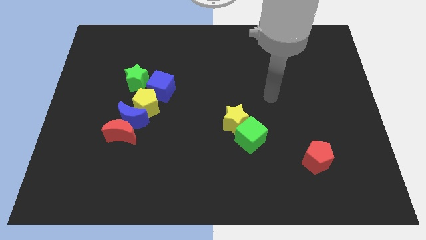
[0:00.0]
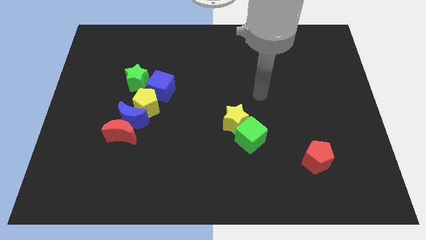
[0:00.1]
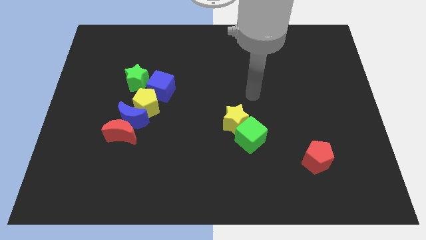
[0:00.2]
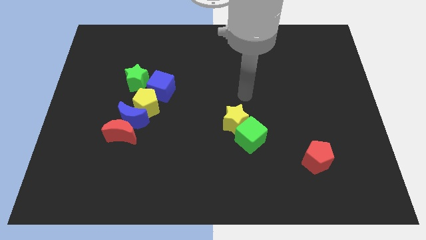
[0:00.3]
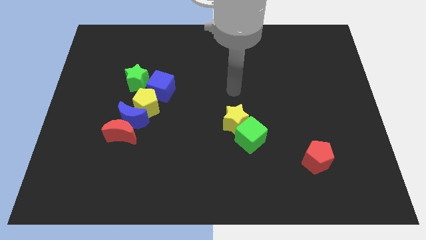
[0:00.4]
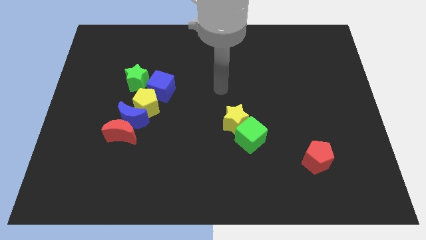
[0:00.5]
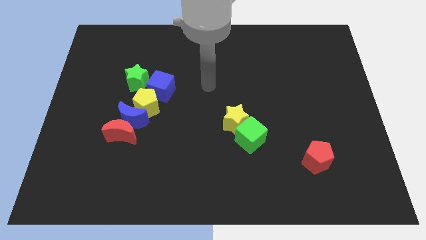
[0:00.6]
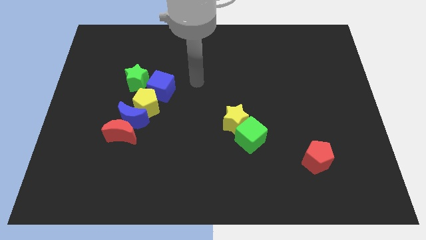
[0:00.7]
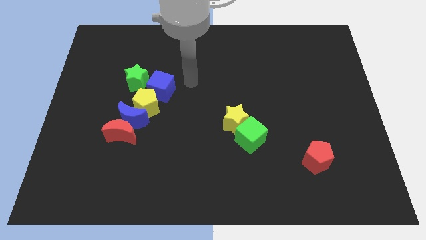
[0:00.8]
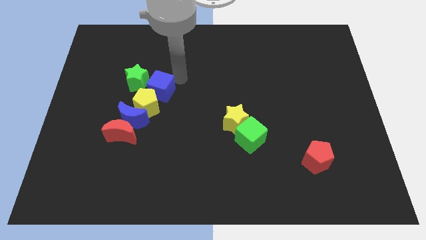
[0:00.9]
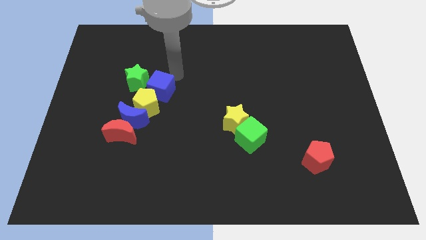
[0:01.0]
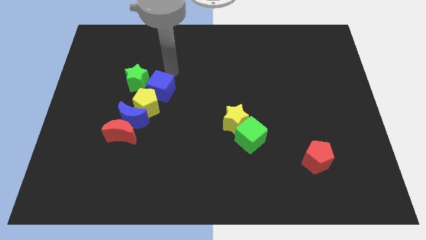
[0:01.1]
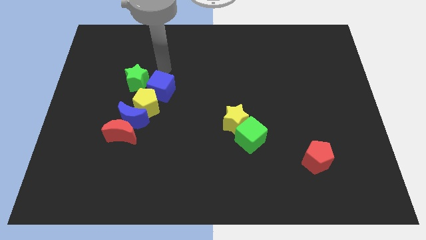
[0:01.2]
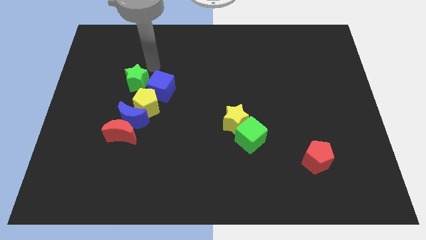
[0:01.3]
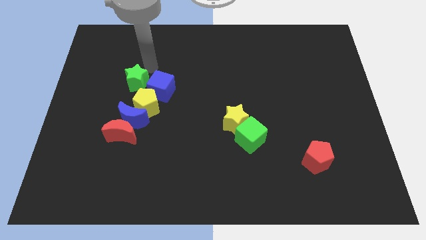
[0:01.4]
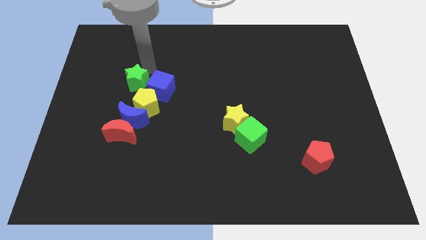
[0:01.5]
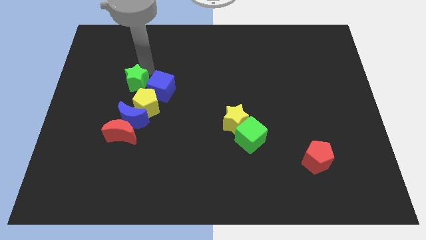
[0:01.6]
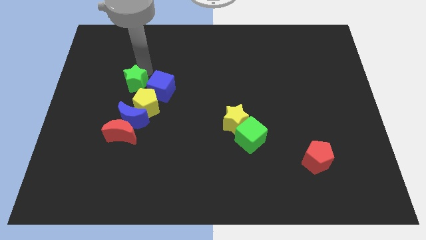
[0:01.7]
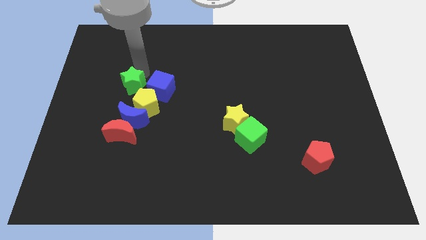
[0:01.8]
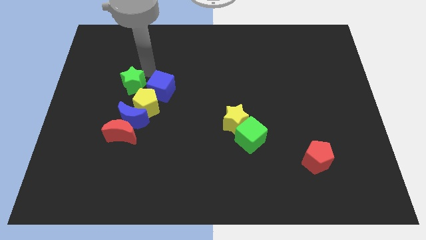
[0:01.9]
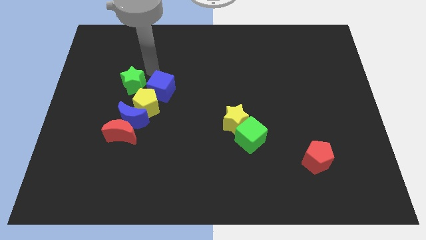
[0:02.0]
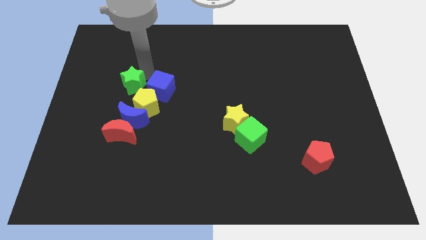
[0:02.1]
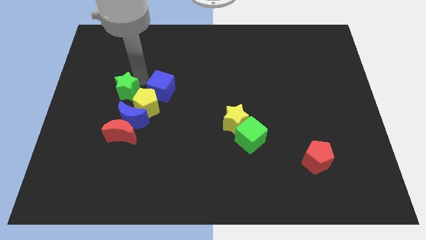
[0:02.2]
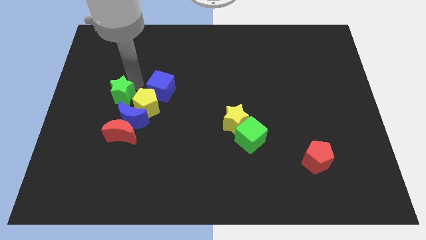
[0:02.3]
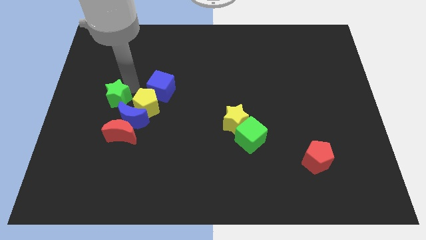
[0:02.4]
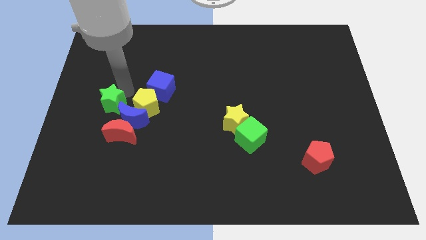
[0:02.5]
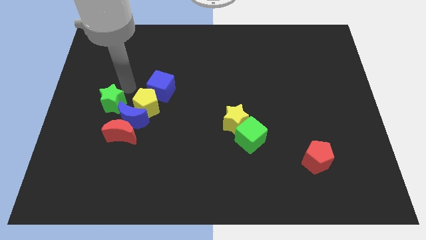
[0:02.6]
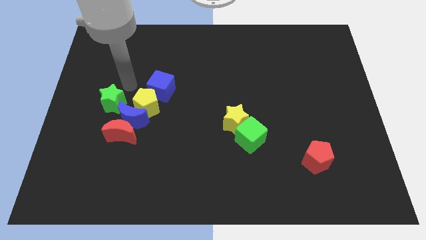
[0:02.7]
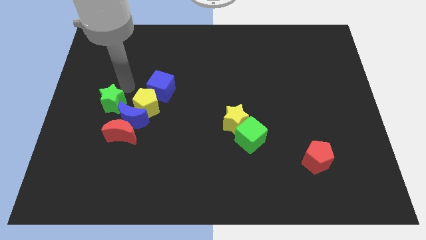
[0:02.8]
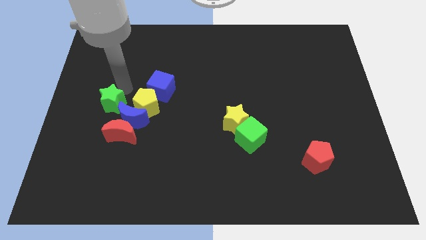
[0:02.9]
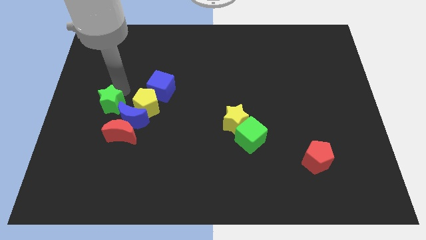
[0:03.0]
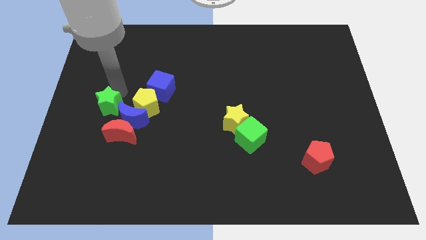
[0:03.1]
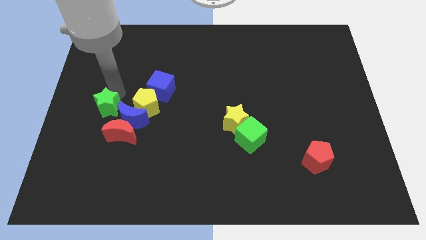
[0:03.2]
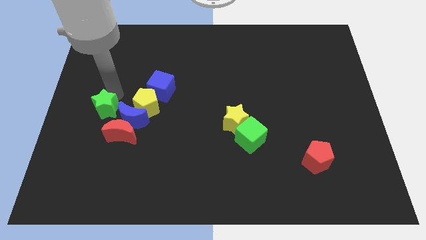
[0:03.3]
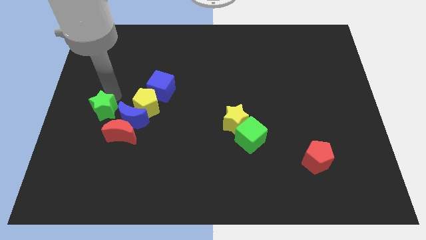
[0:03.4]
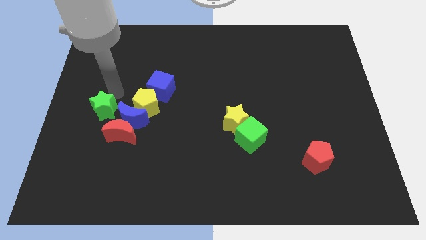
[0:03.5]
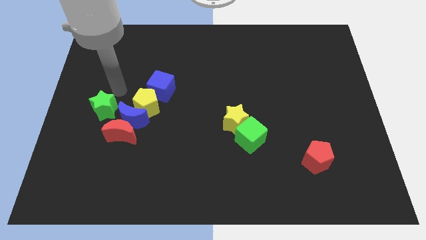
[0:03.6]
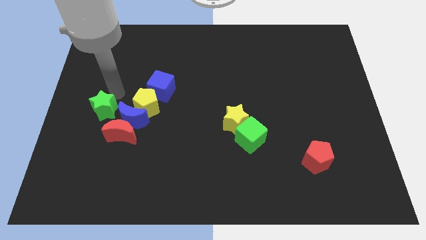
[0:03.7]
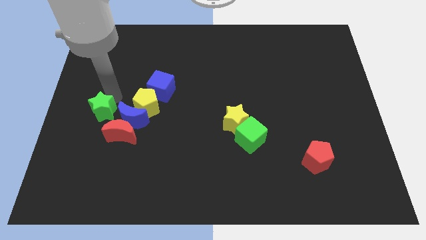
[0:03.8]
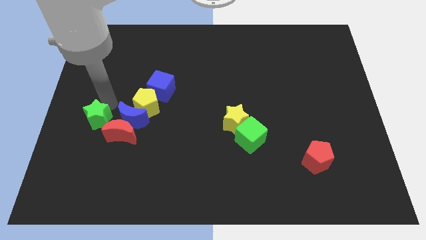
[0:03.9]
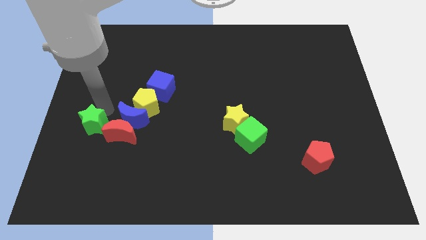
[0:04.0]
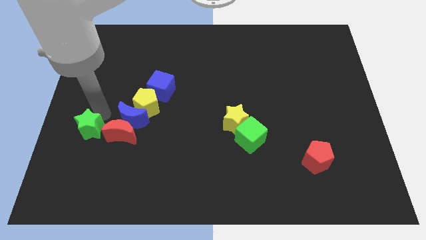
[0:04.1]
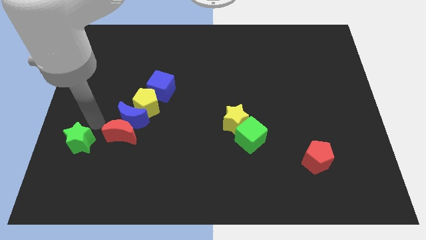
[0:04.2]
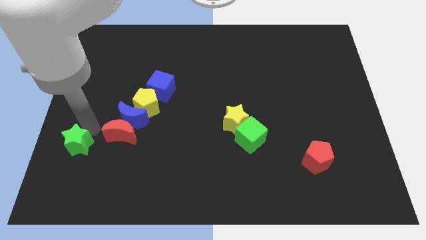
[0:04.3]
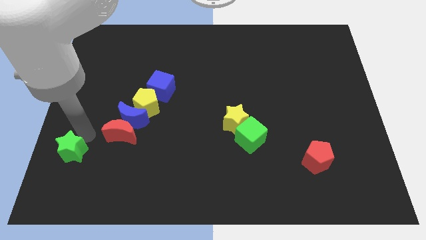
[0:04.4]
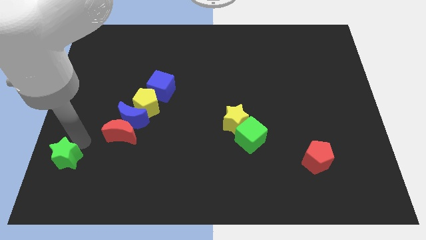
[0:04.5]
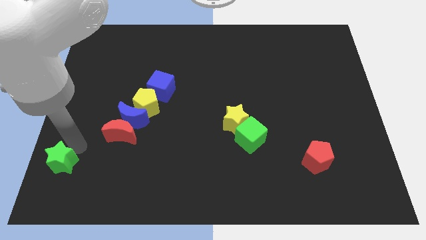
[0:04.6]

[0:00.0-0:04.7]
put the green star to the bottom left corner

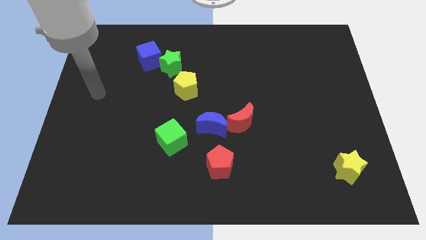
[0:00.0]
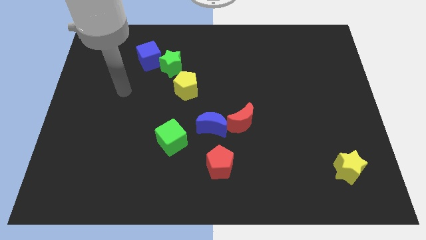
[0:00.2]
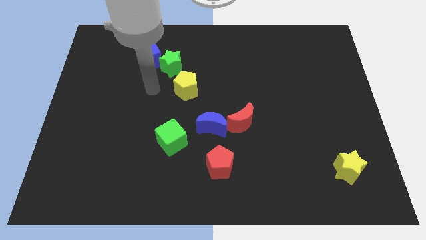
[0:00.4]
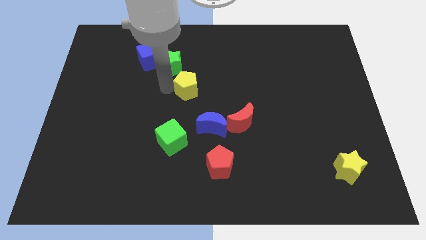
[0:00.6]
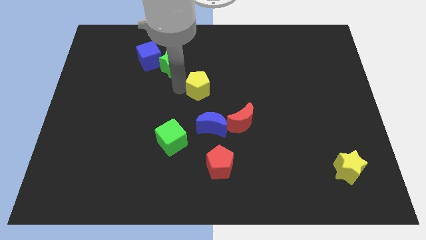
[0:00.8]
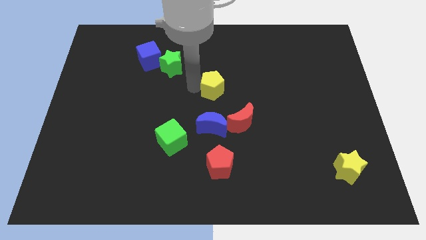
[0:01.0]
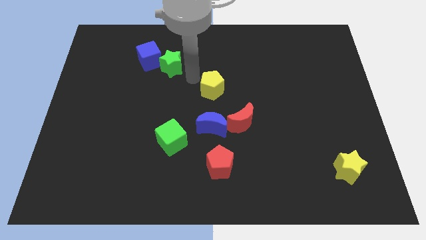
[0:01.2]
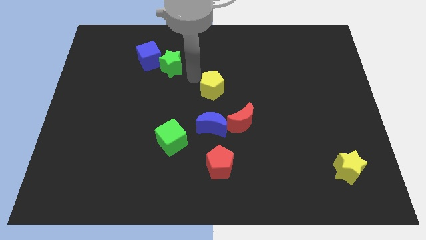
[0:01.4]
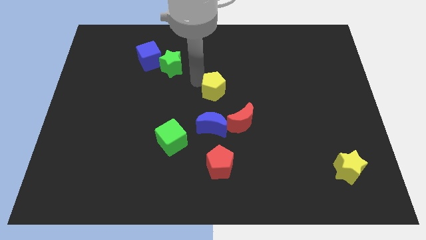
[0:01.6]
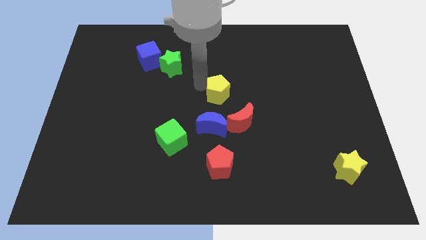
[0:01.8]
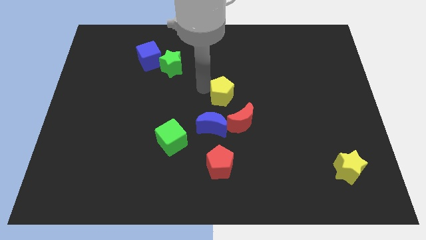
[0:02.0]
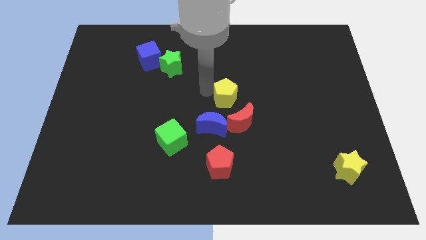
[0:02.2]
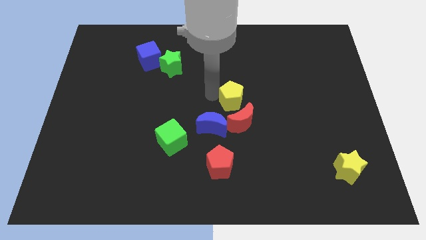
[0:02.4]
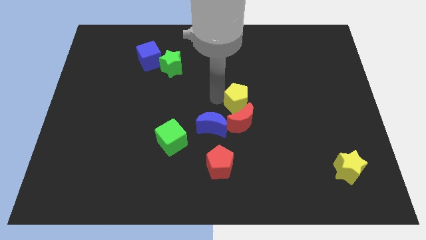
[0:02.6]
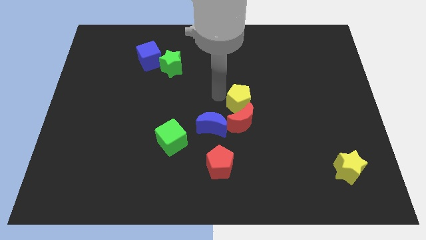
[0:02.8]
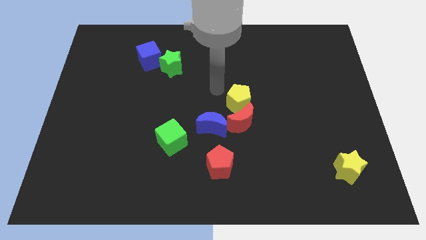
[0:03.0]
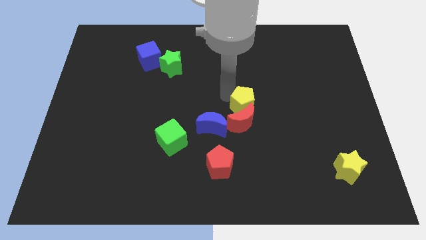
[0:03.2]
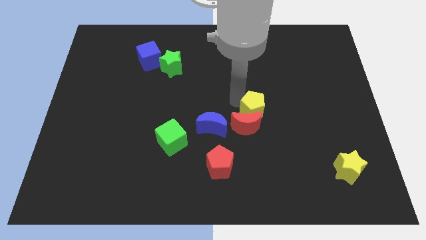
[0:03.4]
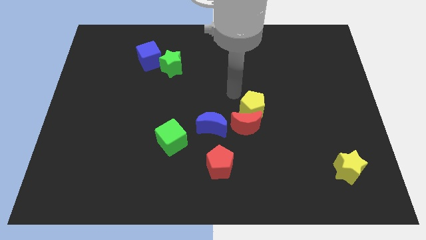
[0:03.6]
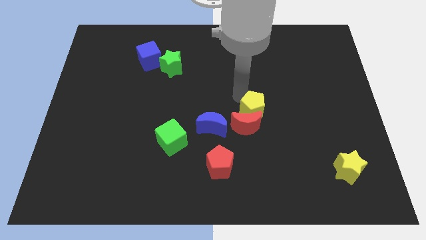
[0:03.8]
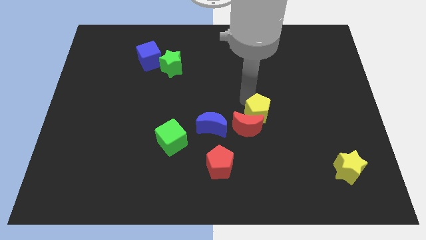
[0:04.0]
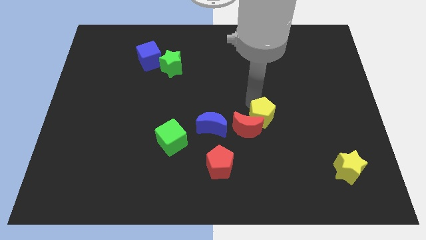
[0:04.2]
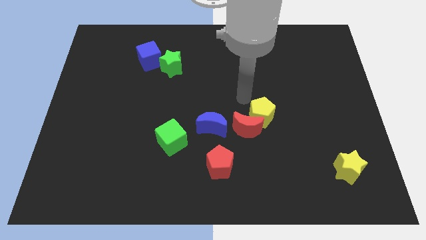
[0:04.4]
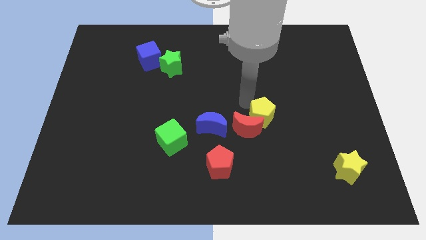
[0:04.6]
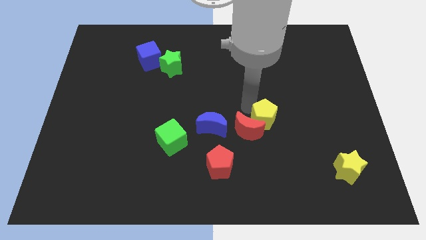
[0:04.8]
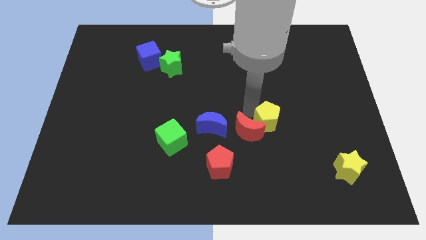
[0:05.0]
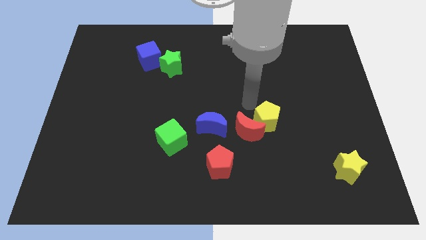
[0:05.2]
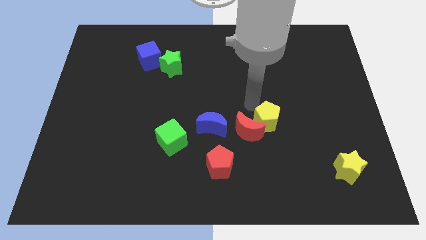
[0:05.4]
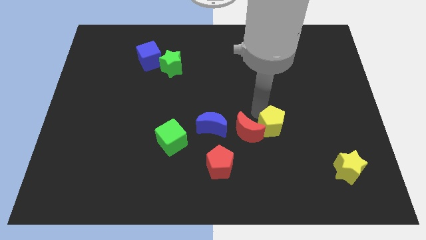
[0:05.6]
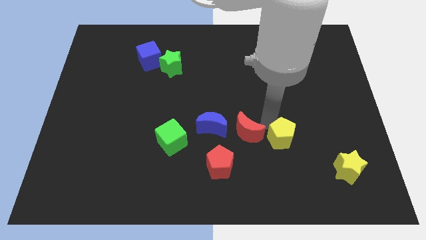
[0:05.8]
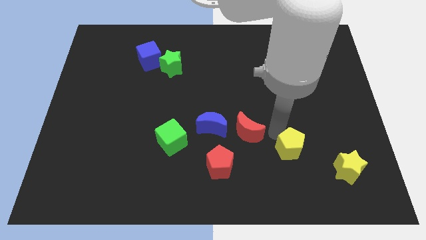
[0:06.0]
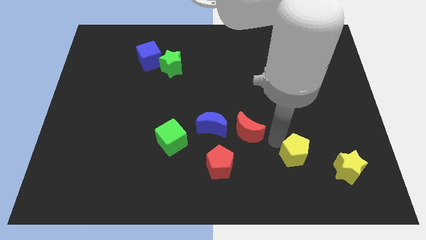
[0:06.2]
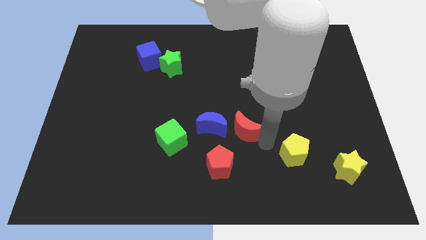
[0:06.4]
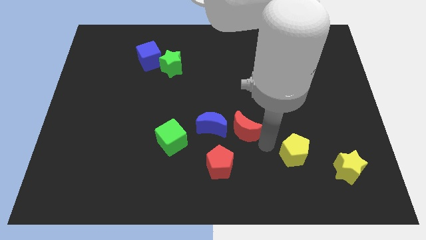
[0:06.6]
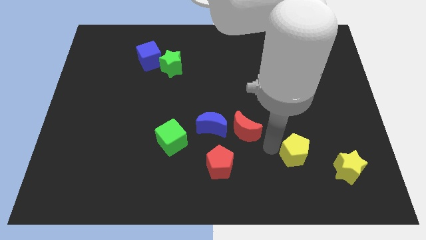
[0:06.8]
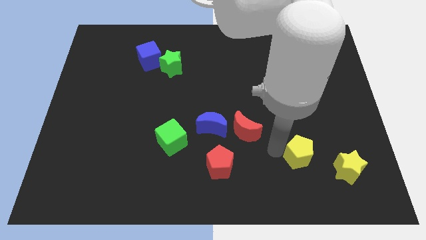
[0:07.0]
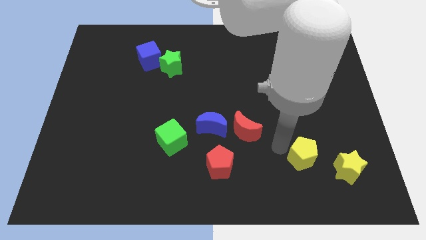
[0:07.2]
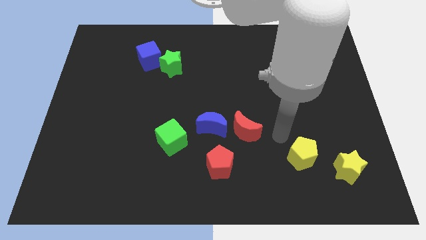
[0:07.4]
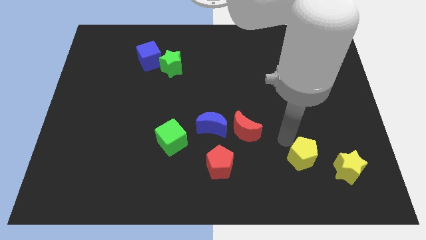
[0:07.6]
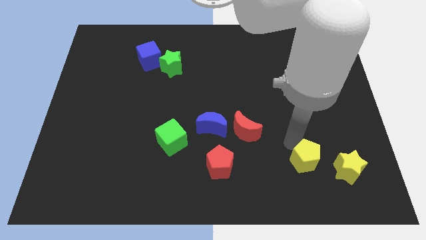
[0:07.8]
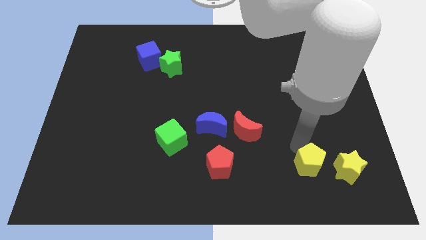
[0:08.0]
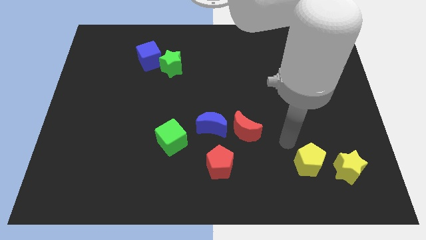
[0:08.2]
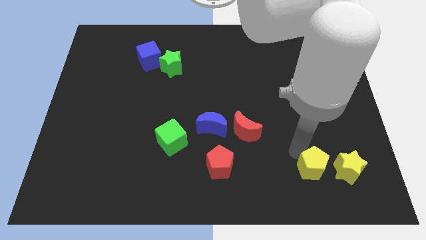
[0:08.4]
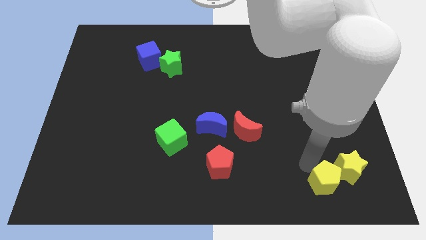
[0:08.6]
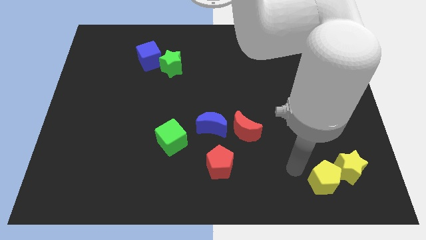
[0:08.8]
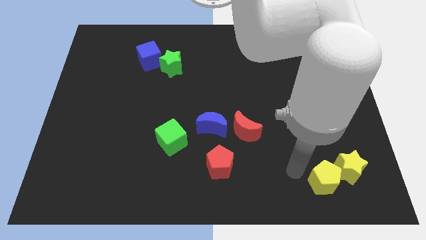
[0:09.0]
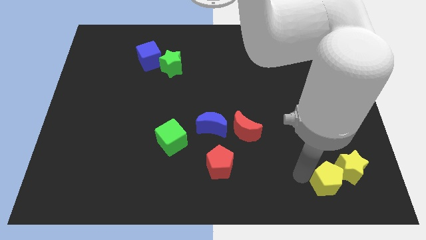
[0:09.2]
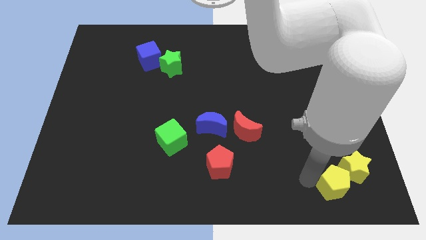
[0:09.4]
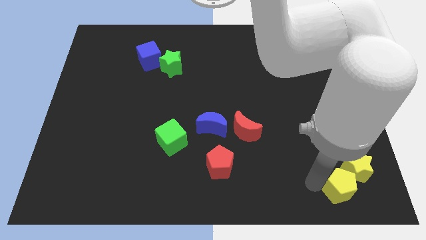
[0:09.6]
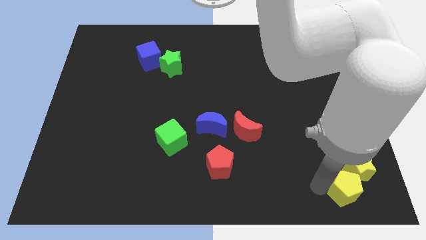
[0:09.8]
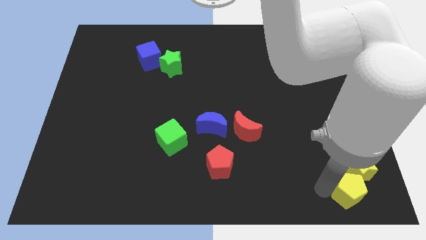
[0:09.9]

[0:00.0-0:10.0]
slide the yellow pentagon to the lower right corner
